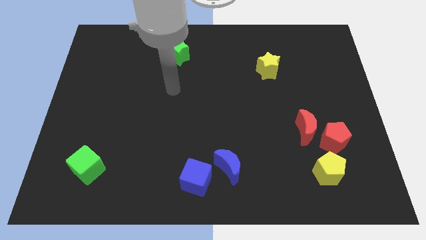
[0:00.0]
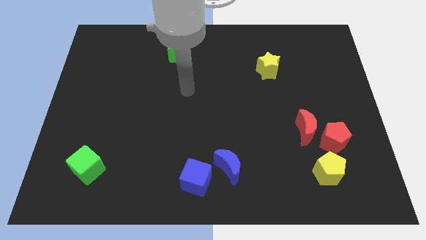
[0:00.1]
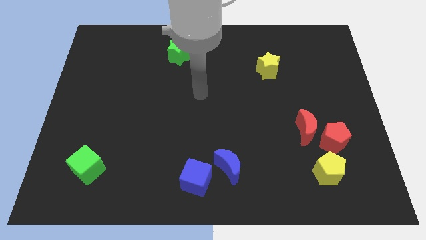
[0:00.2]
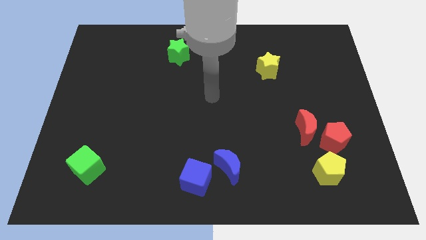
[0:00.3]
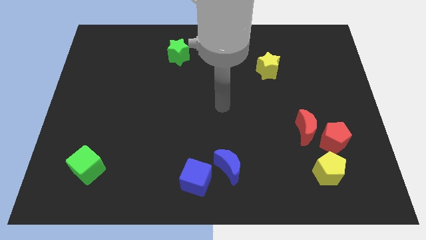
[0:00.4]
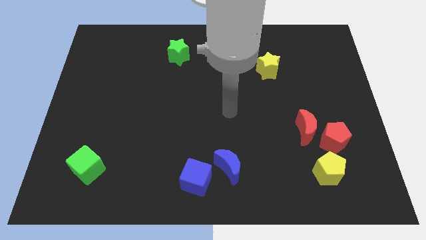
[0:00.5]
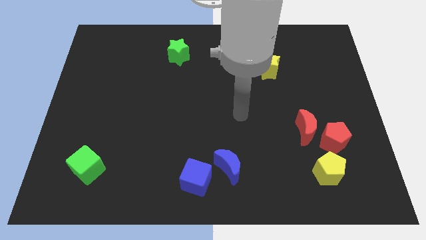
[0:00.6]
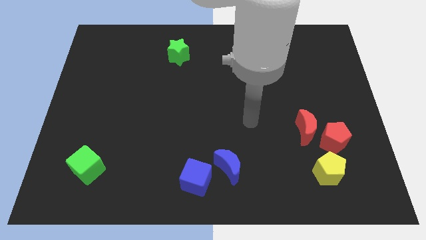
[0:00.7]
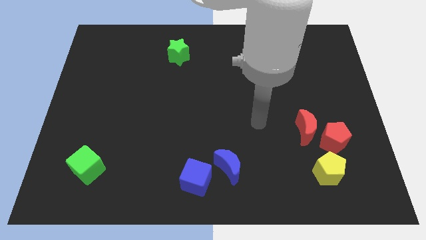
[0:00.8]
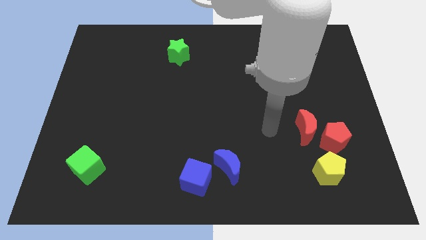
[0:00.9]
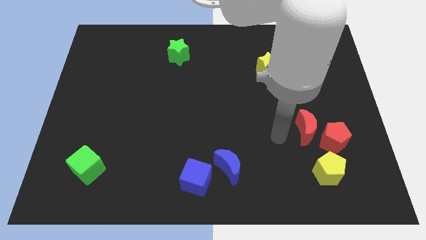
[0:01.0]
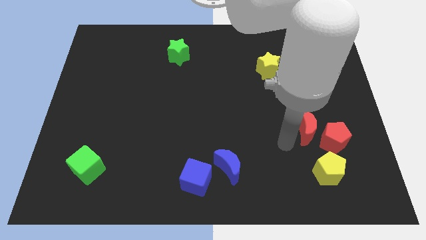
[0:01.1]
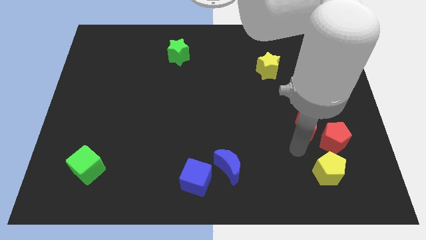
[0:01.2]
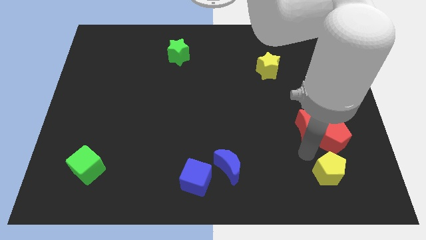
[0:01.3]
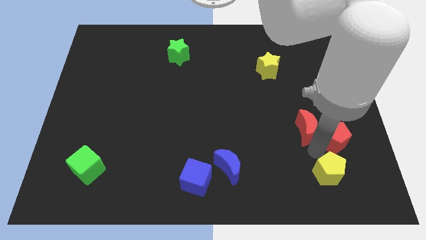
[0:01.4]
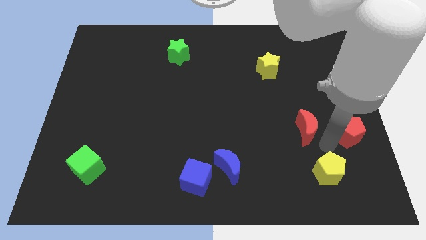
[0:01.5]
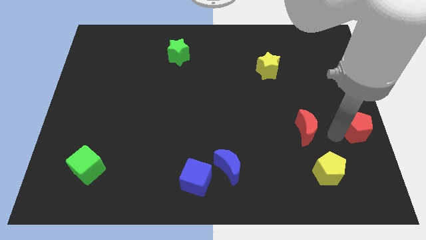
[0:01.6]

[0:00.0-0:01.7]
separate the red moon from the red pentagon

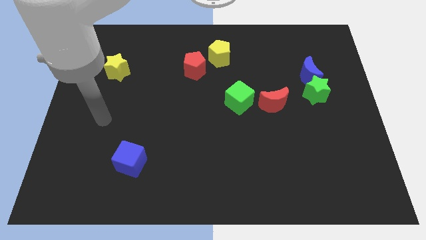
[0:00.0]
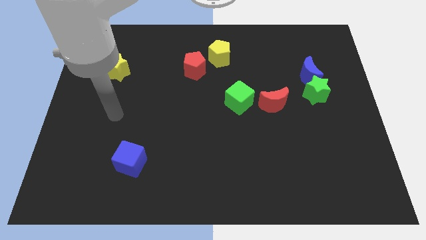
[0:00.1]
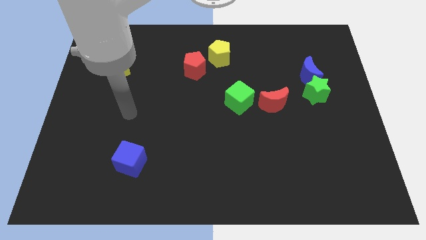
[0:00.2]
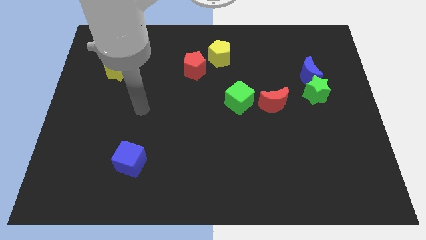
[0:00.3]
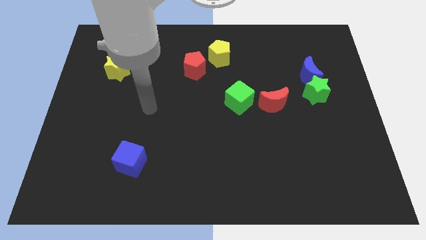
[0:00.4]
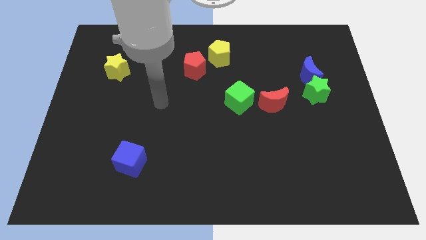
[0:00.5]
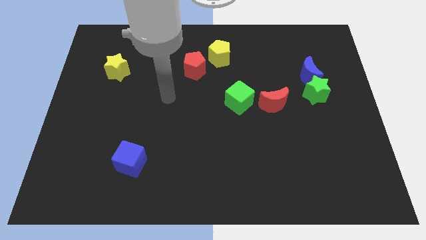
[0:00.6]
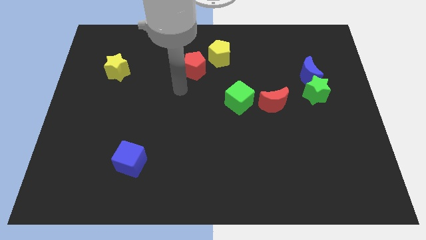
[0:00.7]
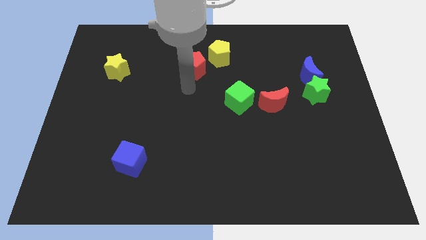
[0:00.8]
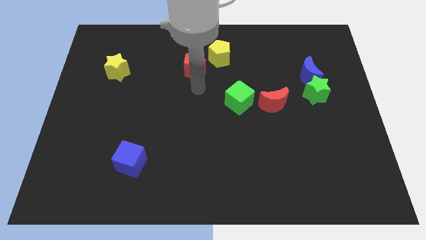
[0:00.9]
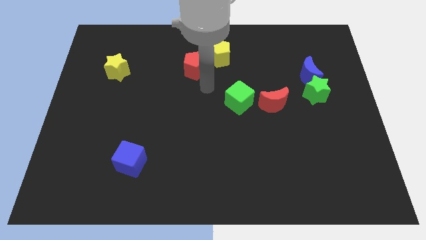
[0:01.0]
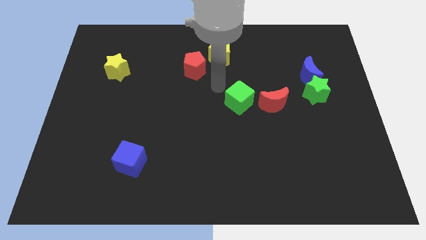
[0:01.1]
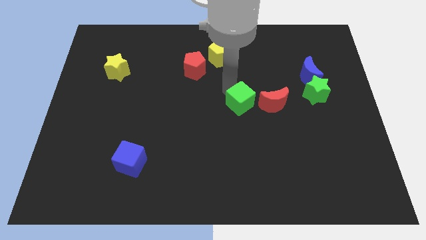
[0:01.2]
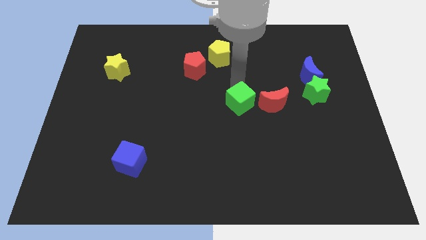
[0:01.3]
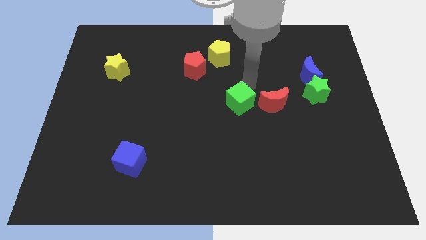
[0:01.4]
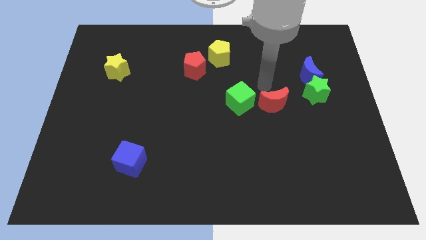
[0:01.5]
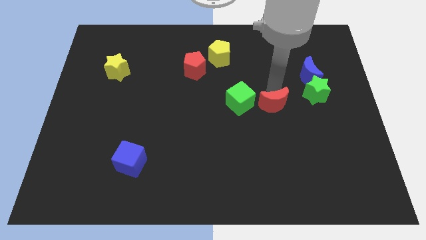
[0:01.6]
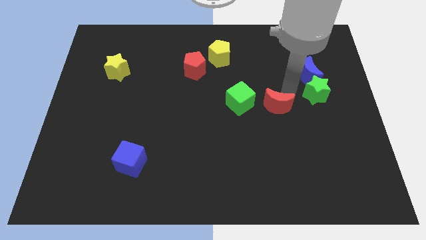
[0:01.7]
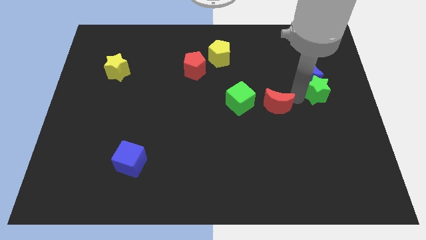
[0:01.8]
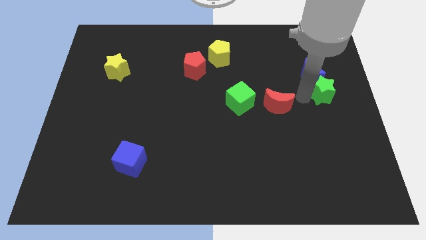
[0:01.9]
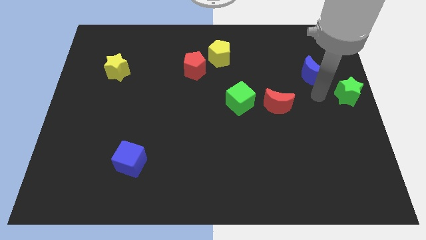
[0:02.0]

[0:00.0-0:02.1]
pull the blue moon apart from the green star

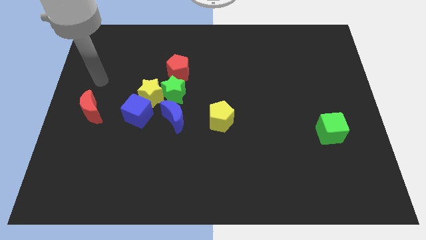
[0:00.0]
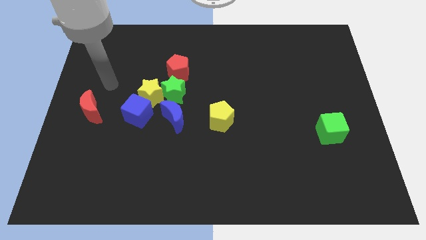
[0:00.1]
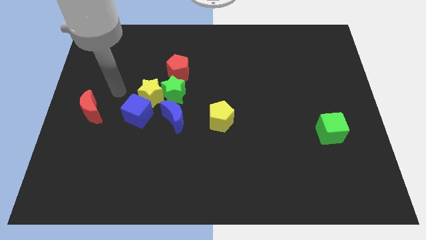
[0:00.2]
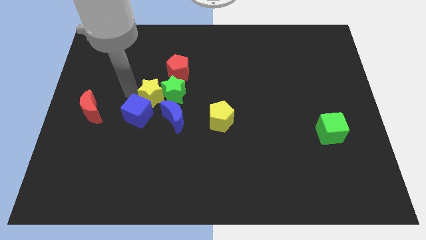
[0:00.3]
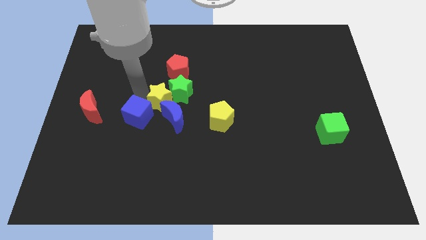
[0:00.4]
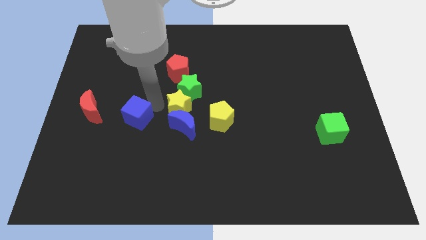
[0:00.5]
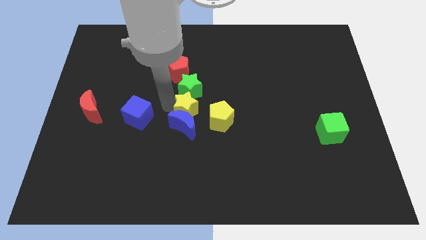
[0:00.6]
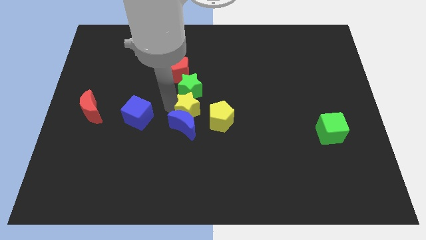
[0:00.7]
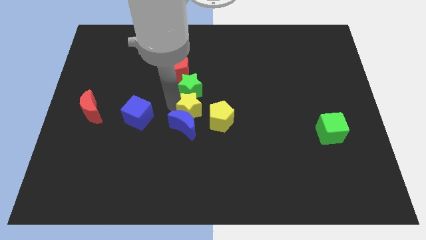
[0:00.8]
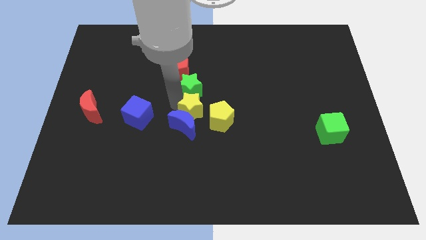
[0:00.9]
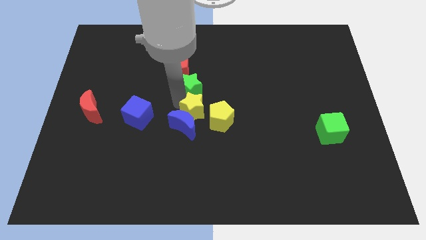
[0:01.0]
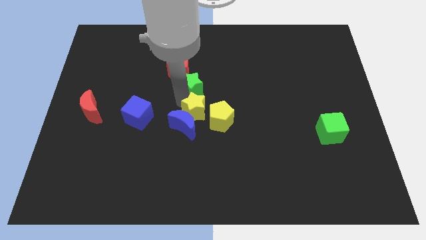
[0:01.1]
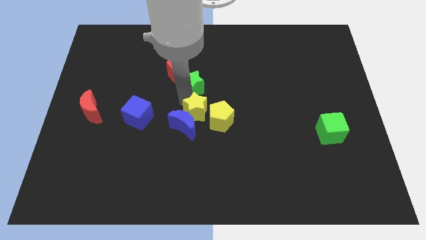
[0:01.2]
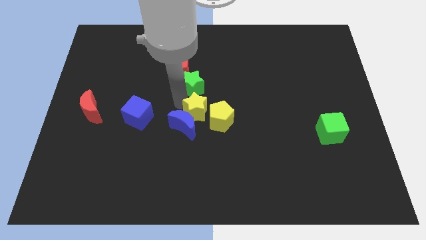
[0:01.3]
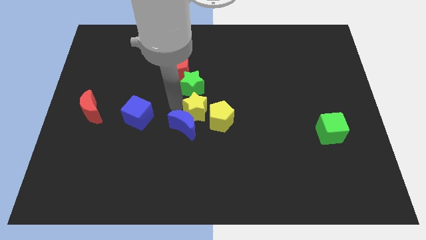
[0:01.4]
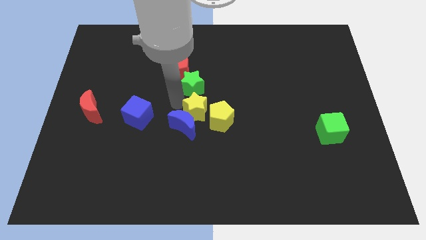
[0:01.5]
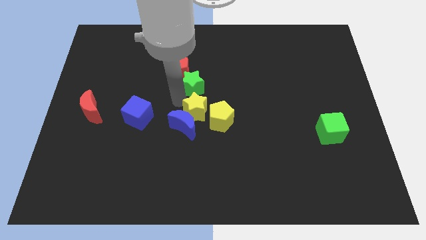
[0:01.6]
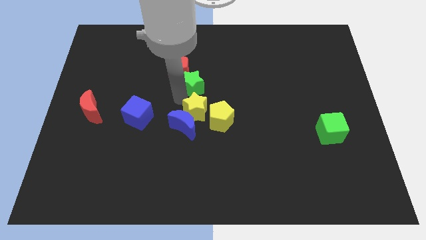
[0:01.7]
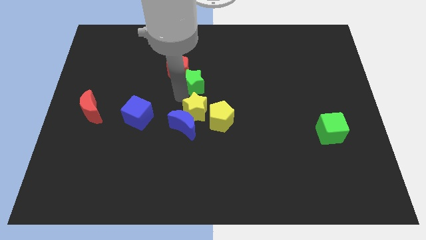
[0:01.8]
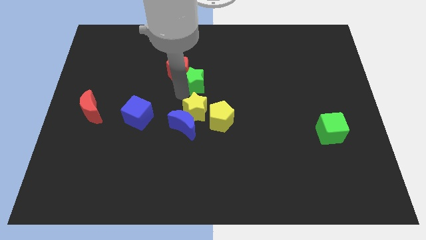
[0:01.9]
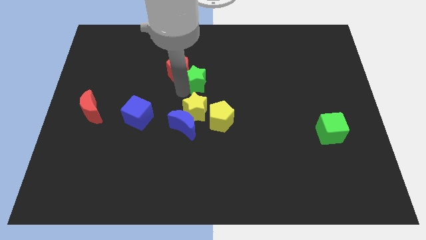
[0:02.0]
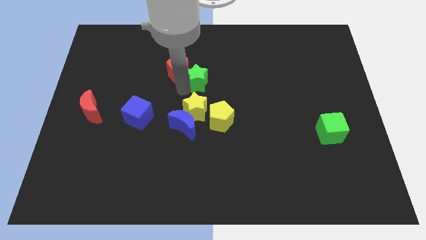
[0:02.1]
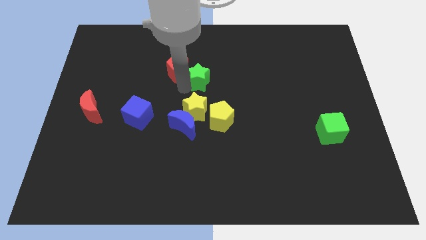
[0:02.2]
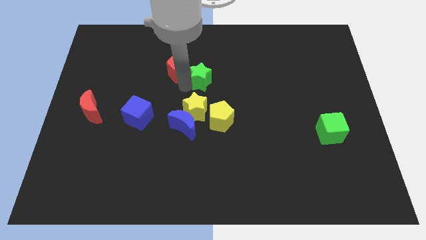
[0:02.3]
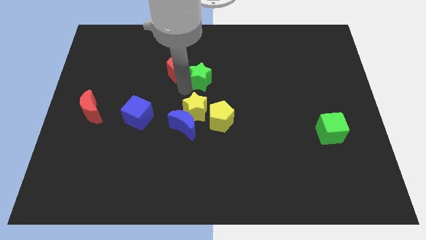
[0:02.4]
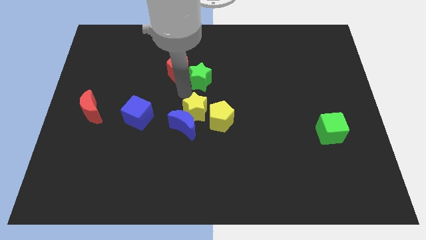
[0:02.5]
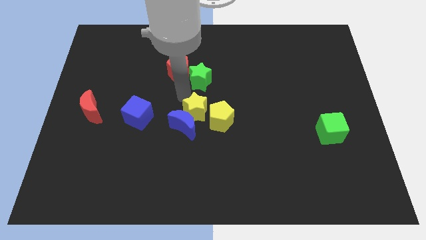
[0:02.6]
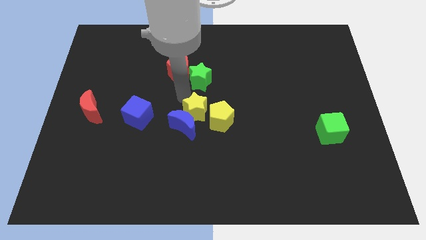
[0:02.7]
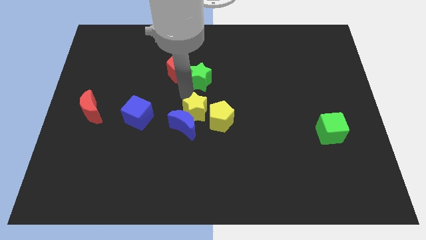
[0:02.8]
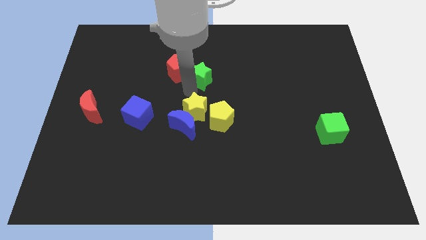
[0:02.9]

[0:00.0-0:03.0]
pull the green star apart from the group of blocks

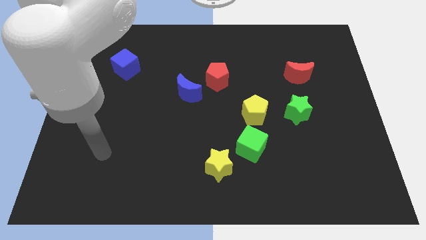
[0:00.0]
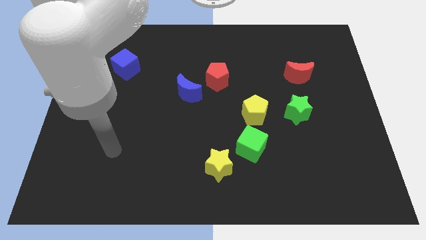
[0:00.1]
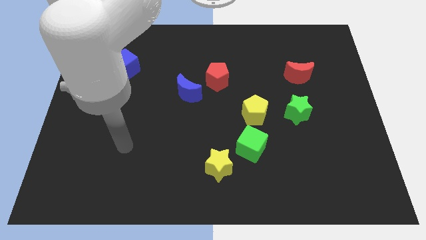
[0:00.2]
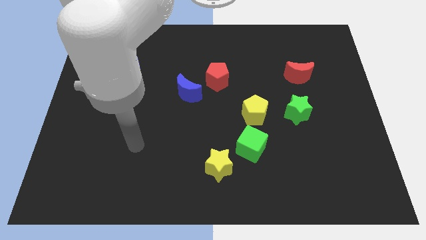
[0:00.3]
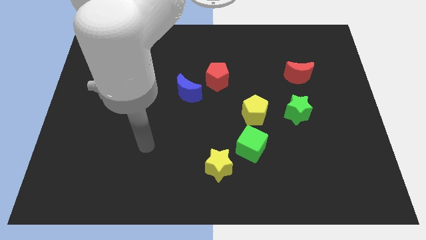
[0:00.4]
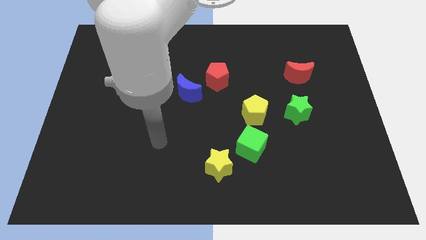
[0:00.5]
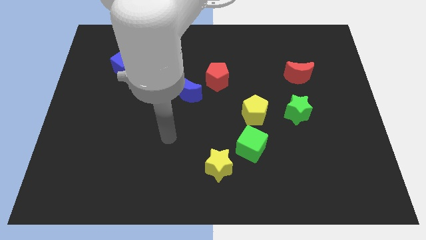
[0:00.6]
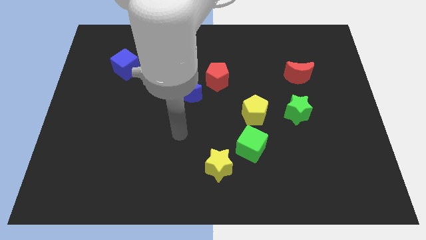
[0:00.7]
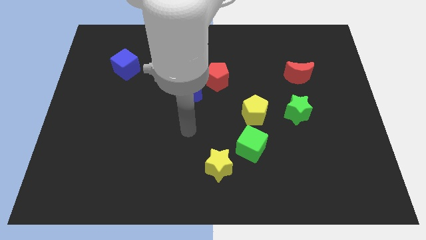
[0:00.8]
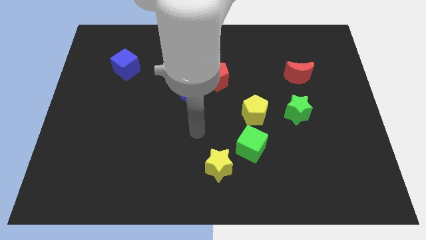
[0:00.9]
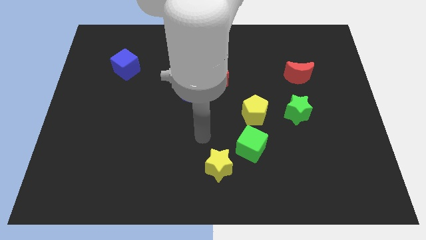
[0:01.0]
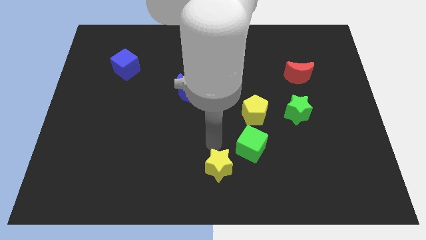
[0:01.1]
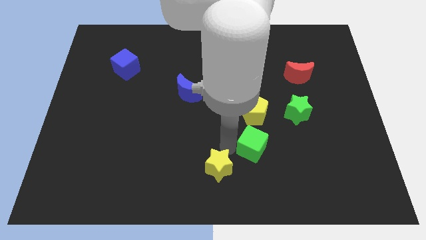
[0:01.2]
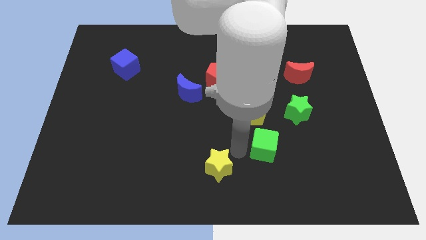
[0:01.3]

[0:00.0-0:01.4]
pull the yellow star apart from the green cube

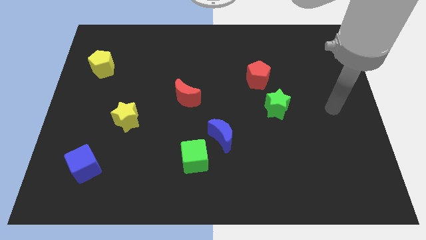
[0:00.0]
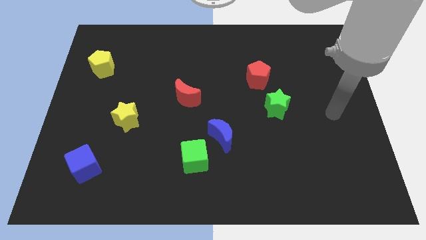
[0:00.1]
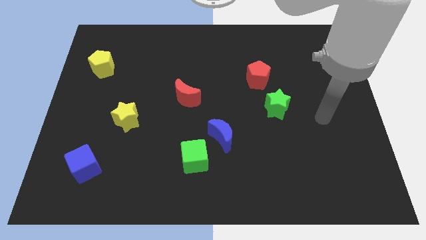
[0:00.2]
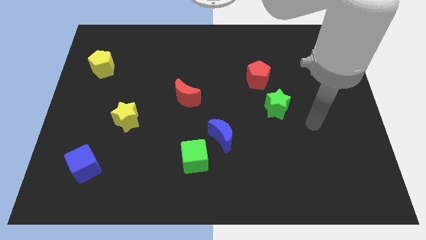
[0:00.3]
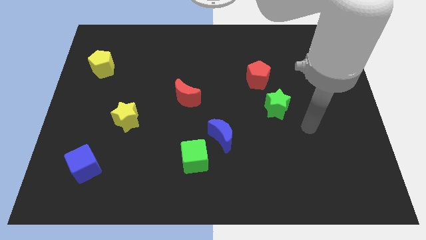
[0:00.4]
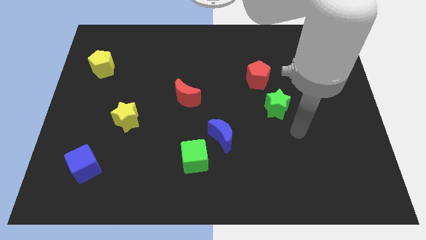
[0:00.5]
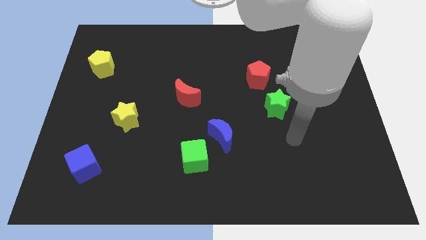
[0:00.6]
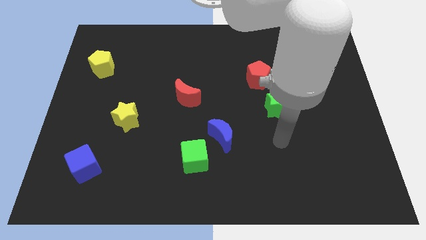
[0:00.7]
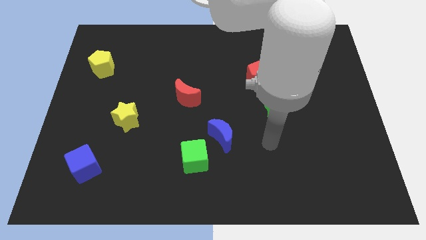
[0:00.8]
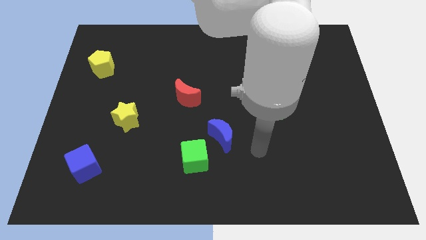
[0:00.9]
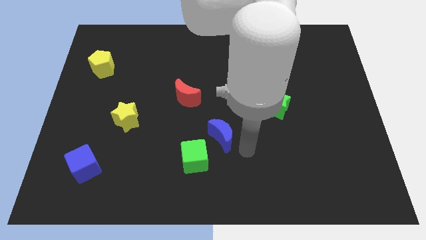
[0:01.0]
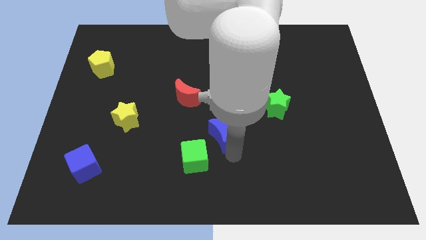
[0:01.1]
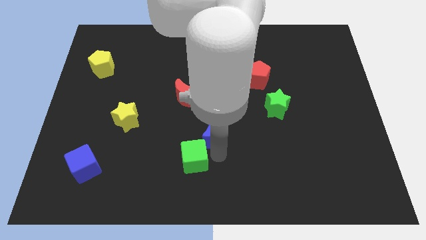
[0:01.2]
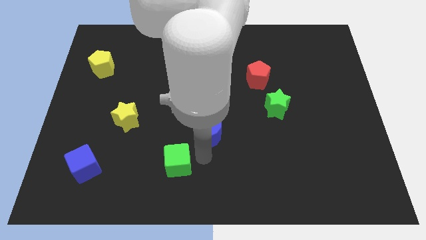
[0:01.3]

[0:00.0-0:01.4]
pull the blue moon apart from the green cube
